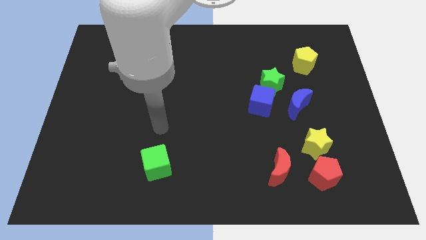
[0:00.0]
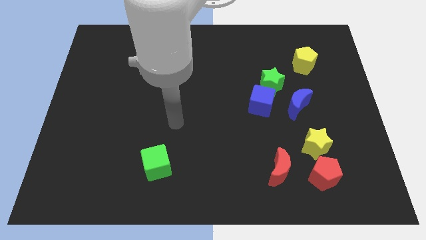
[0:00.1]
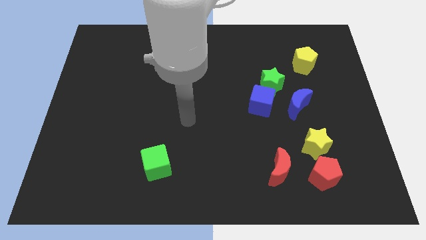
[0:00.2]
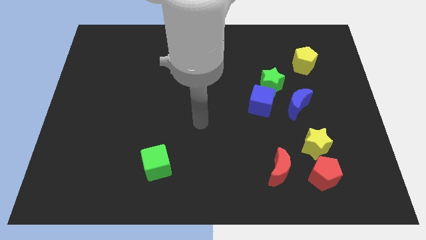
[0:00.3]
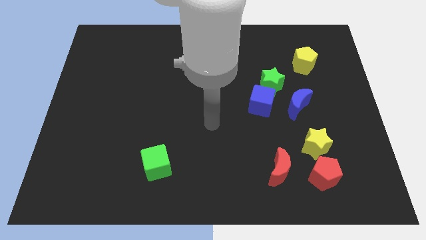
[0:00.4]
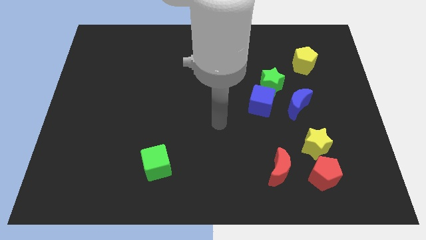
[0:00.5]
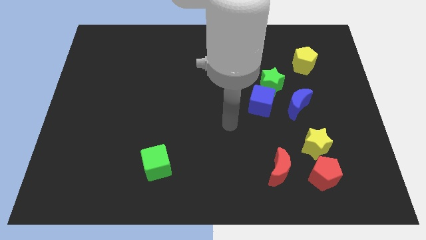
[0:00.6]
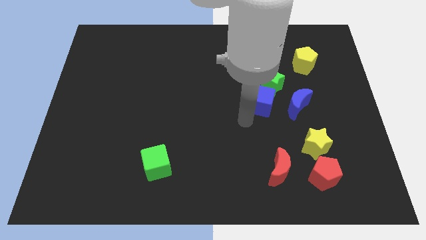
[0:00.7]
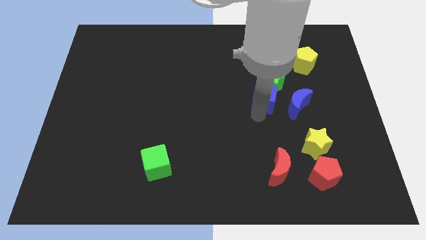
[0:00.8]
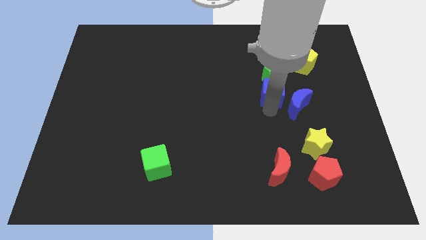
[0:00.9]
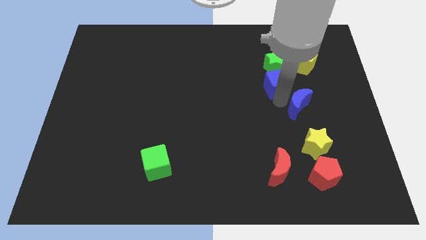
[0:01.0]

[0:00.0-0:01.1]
move the green star away from the blue cube and blue moon

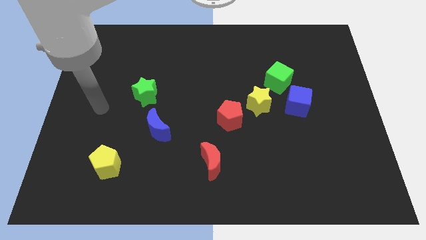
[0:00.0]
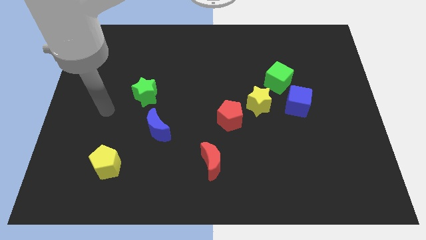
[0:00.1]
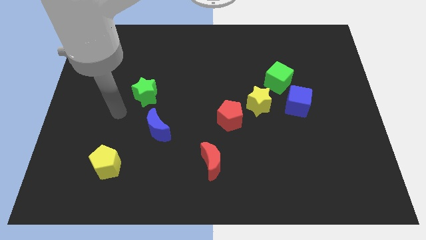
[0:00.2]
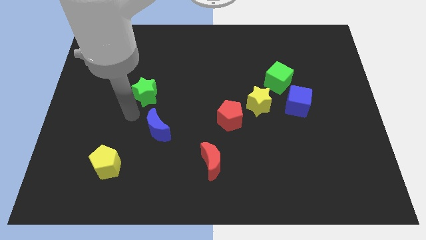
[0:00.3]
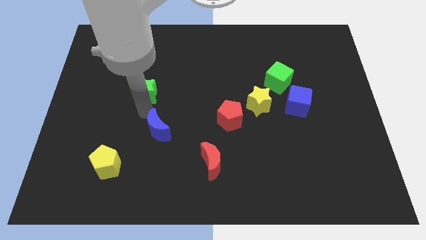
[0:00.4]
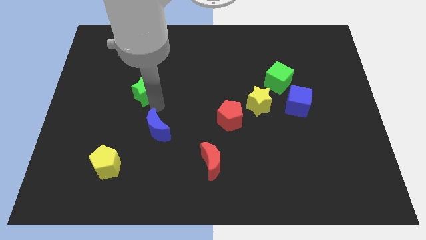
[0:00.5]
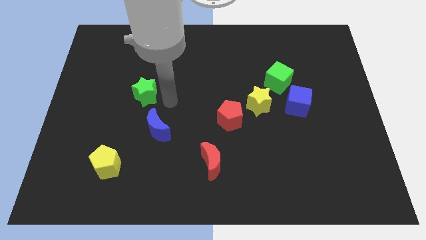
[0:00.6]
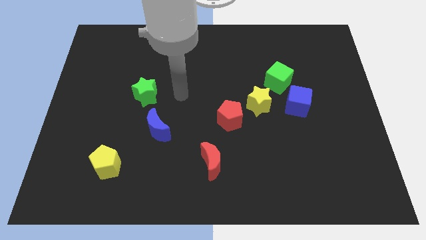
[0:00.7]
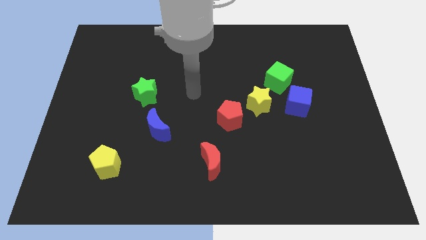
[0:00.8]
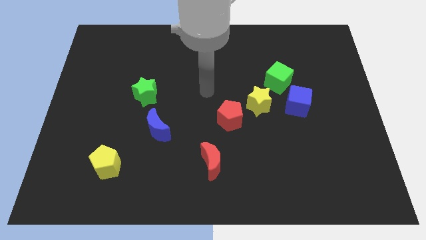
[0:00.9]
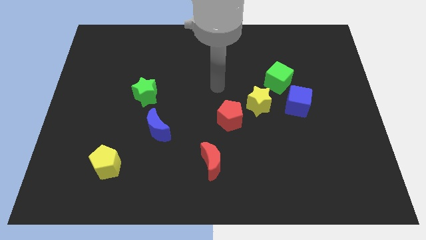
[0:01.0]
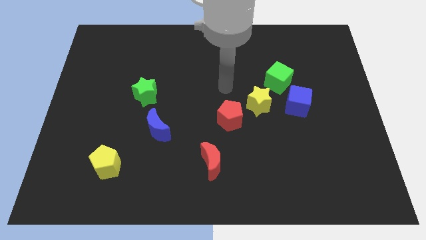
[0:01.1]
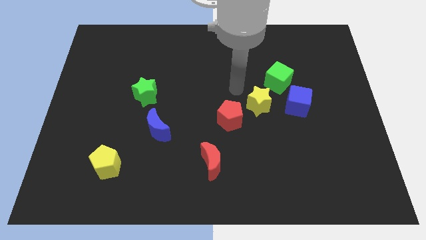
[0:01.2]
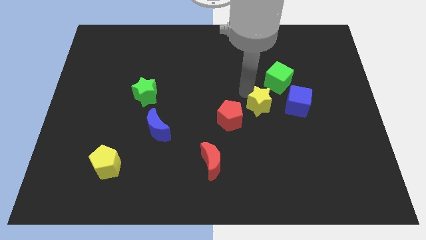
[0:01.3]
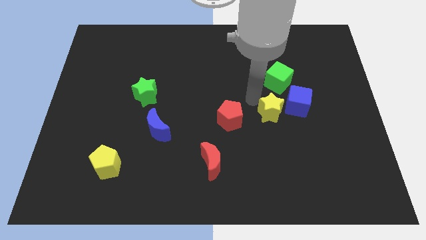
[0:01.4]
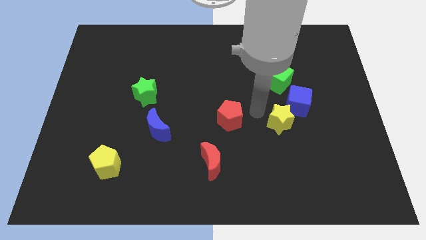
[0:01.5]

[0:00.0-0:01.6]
move the red pentagon away from the yellow star

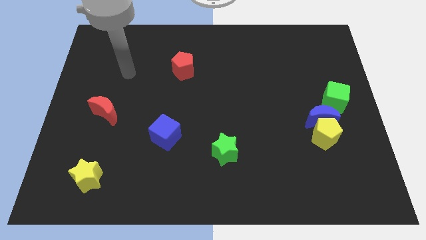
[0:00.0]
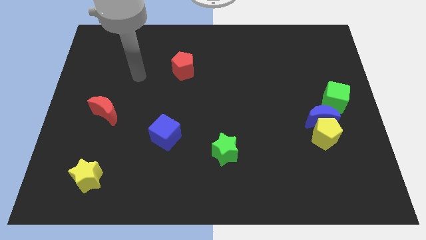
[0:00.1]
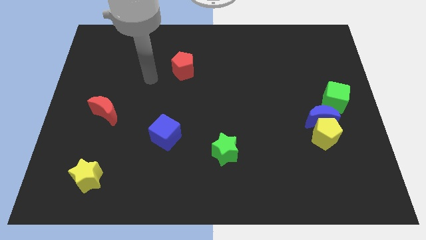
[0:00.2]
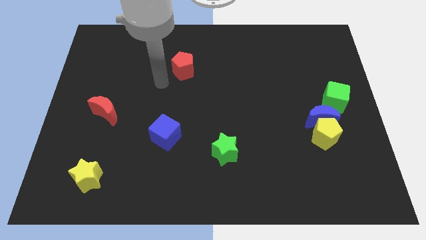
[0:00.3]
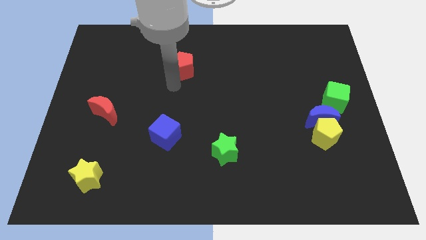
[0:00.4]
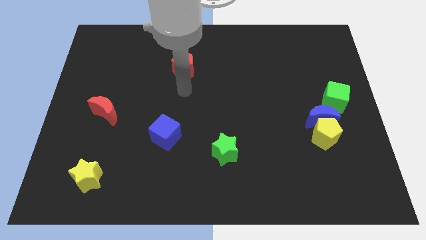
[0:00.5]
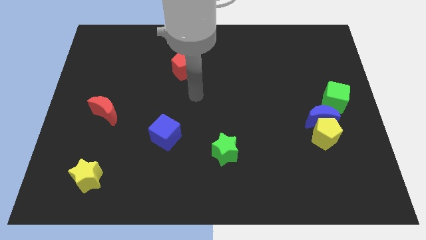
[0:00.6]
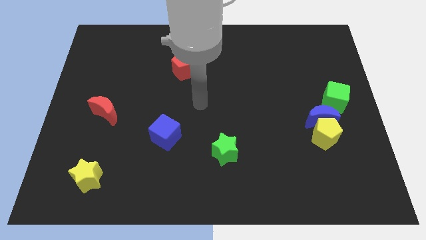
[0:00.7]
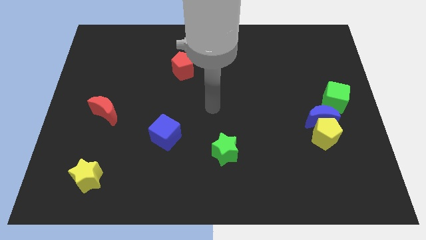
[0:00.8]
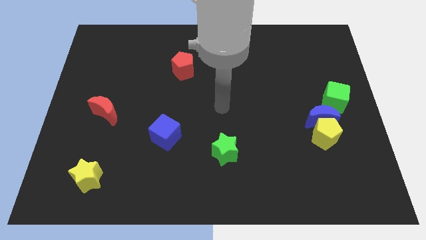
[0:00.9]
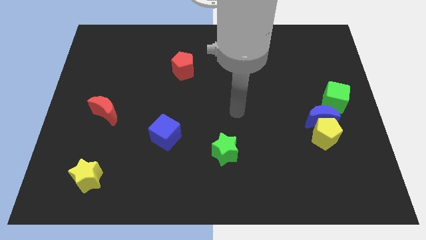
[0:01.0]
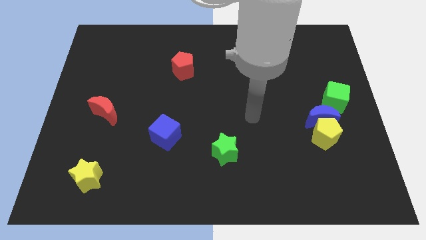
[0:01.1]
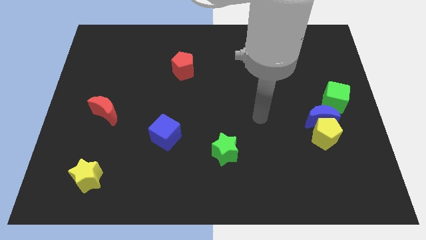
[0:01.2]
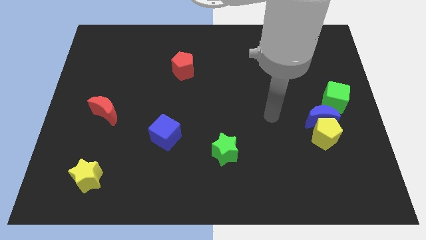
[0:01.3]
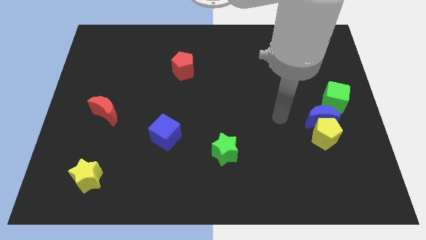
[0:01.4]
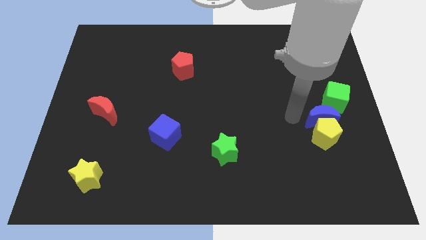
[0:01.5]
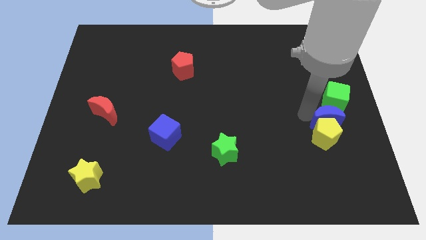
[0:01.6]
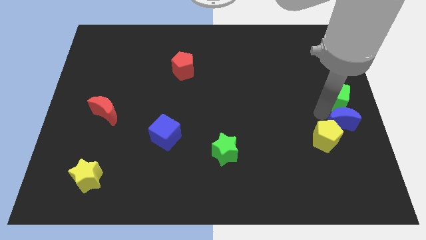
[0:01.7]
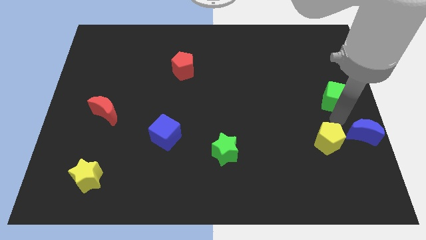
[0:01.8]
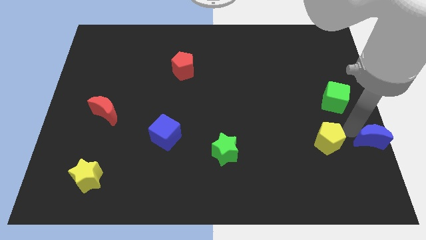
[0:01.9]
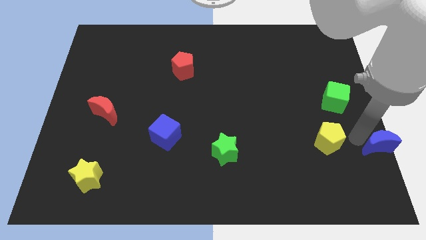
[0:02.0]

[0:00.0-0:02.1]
separate the yellow pentagon from the blue moon

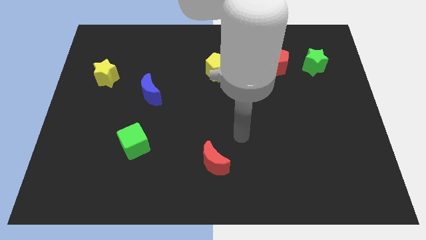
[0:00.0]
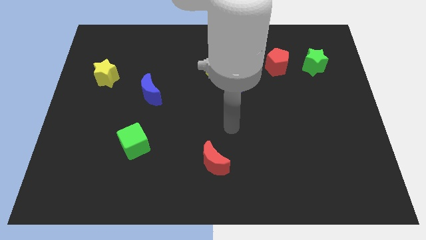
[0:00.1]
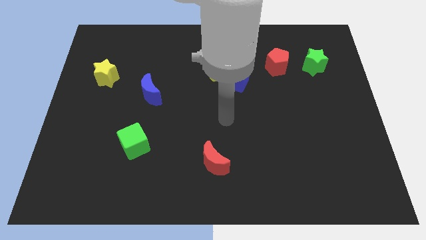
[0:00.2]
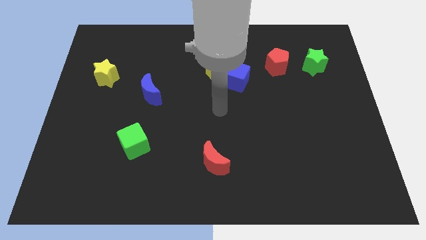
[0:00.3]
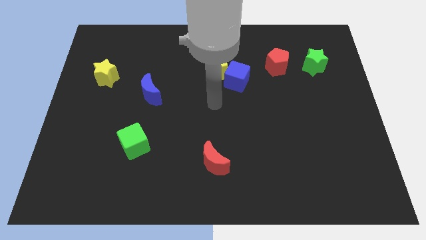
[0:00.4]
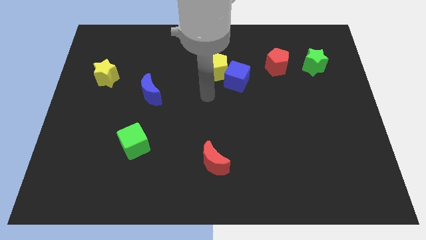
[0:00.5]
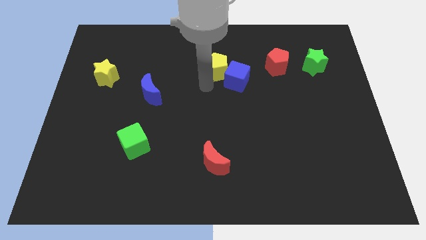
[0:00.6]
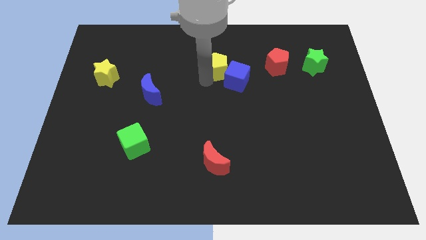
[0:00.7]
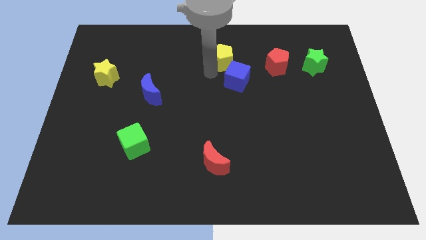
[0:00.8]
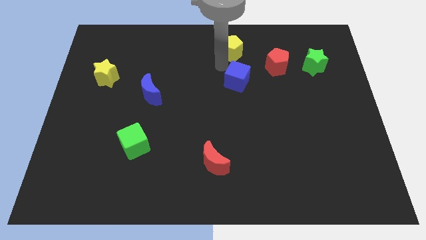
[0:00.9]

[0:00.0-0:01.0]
separate the blue cube from the yellow pentagon

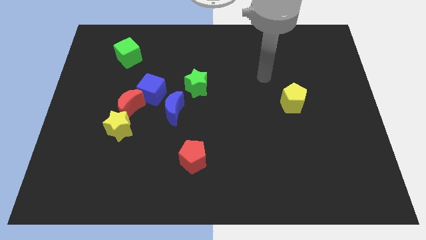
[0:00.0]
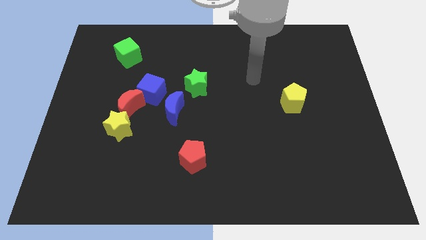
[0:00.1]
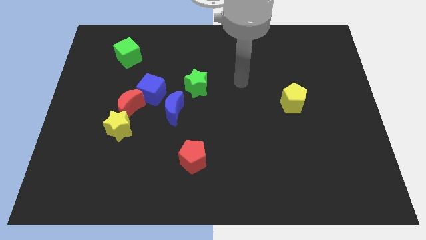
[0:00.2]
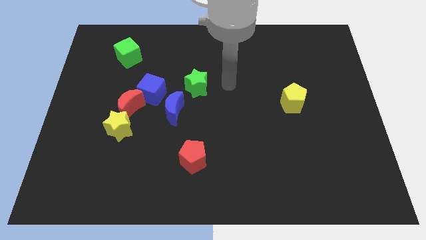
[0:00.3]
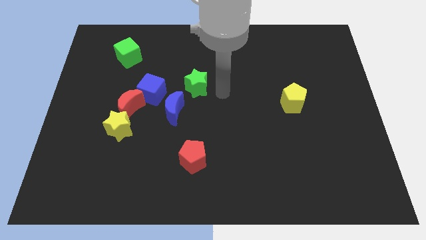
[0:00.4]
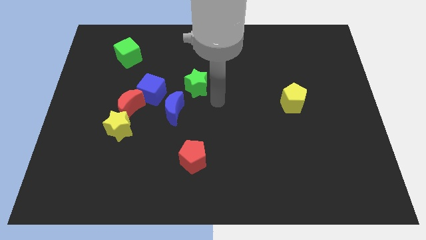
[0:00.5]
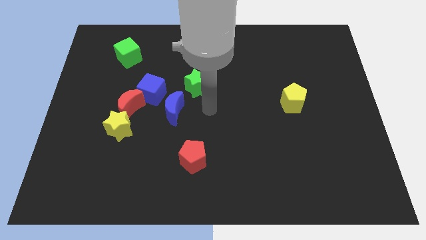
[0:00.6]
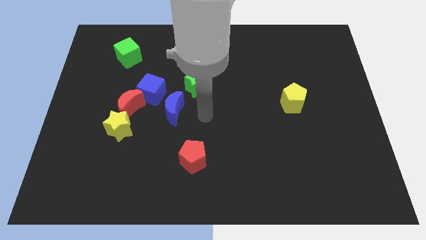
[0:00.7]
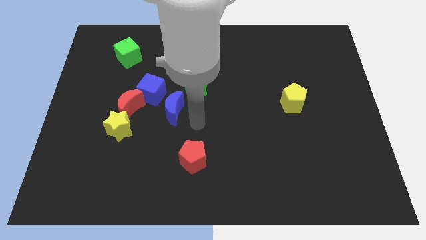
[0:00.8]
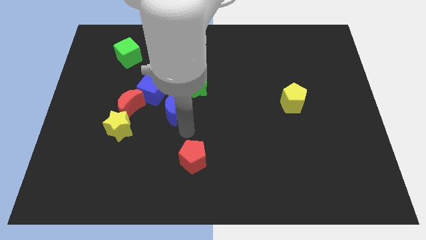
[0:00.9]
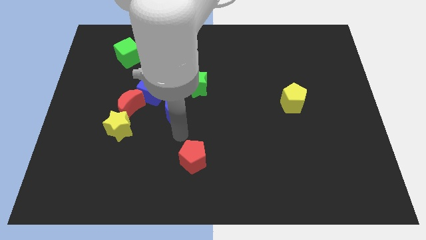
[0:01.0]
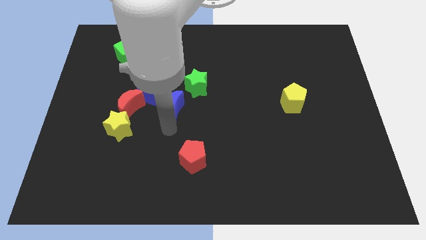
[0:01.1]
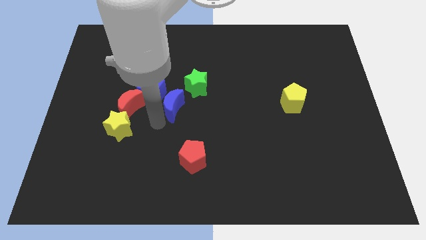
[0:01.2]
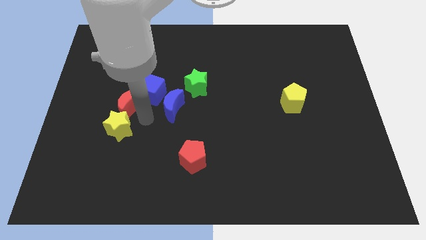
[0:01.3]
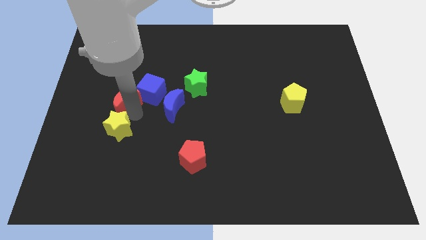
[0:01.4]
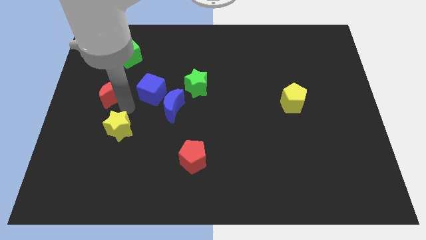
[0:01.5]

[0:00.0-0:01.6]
separate the yellow star from the red moon

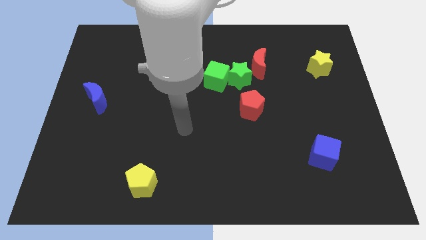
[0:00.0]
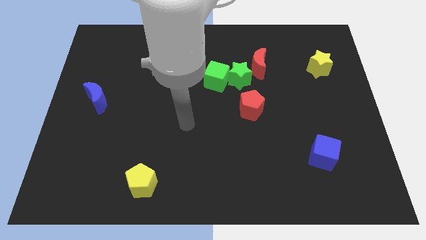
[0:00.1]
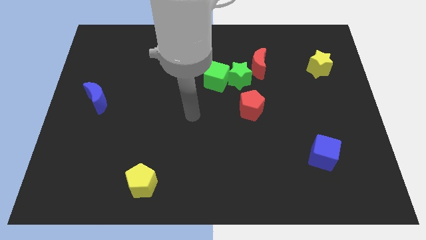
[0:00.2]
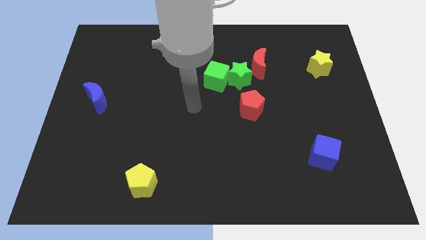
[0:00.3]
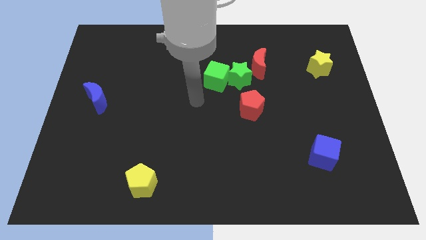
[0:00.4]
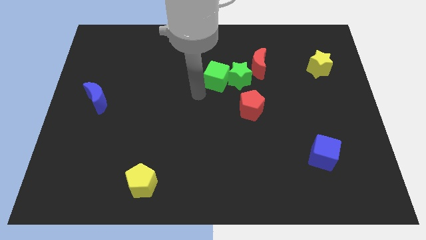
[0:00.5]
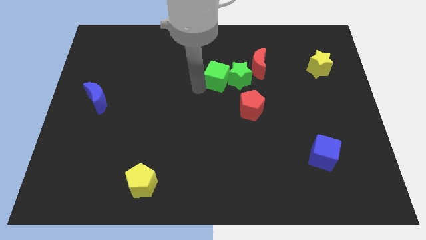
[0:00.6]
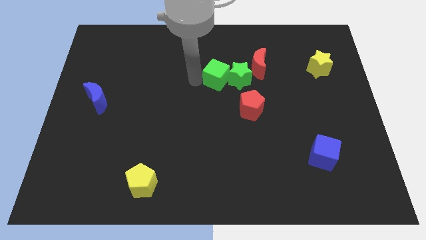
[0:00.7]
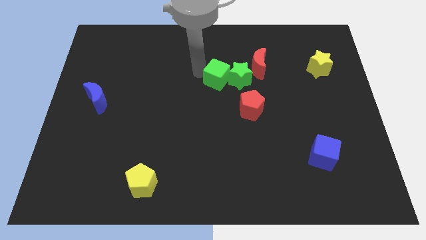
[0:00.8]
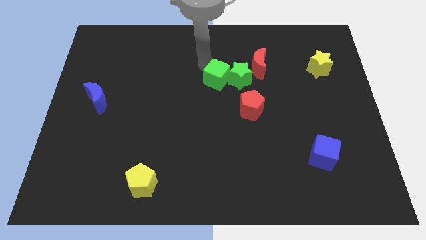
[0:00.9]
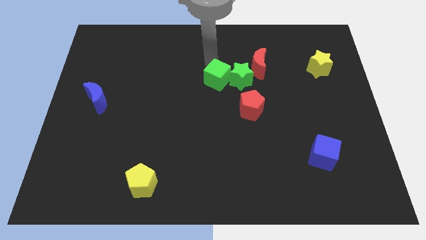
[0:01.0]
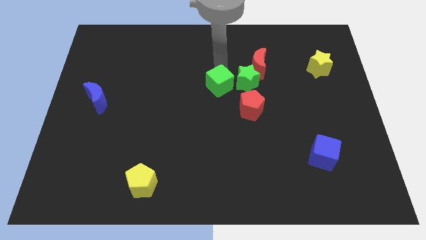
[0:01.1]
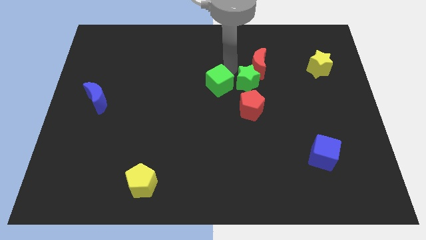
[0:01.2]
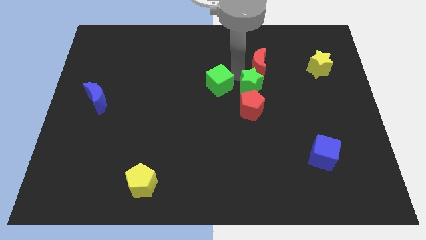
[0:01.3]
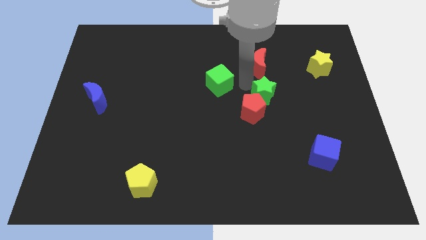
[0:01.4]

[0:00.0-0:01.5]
move the green cube away from the green star

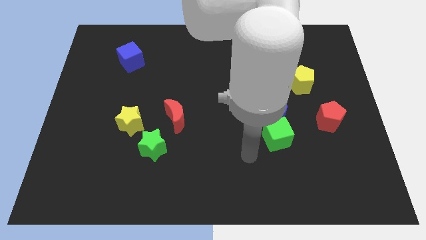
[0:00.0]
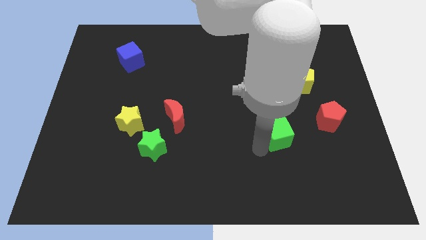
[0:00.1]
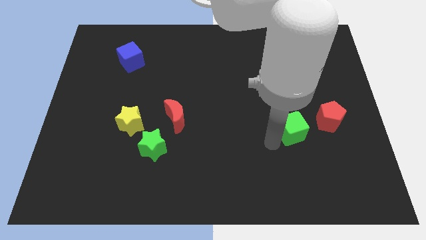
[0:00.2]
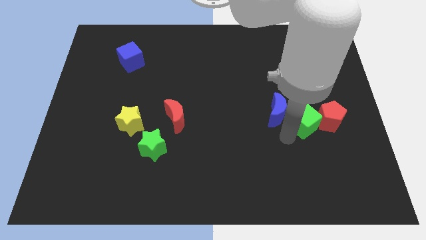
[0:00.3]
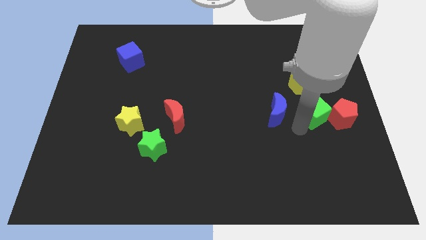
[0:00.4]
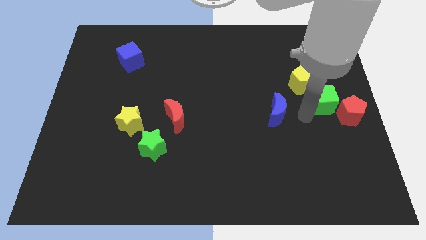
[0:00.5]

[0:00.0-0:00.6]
move the blue moon away from the green cube
